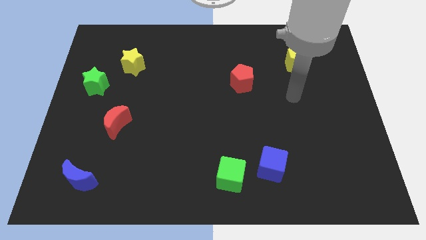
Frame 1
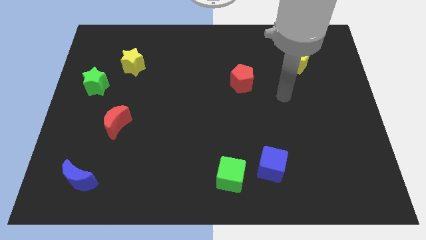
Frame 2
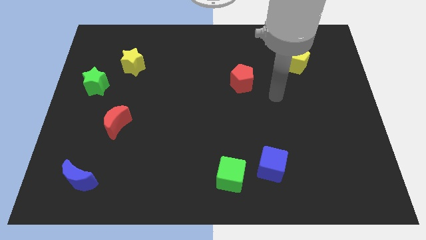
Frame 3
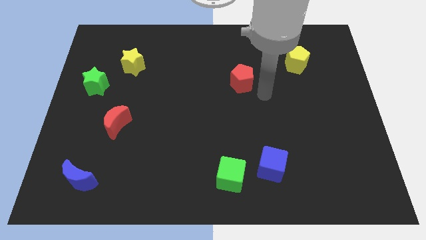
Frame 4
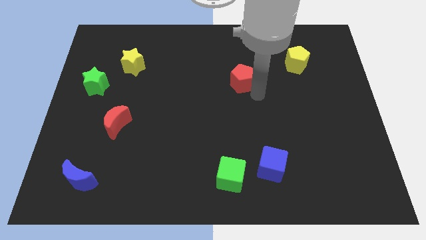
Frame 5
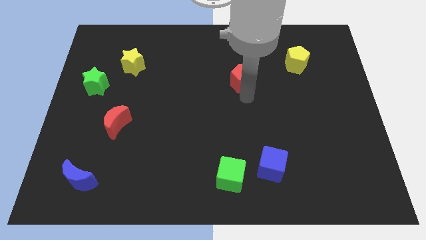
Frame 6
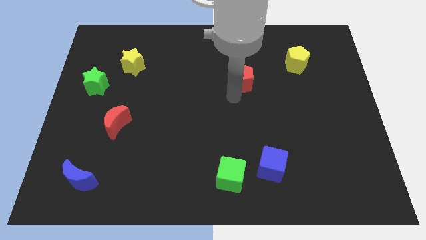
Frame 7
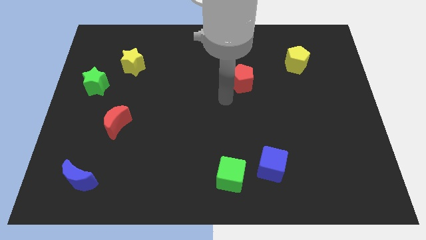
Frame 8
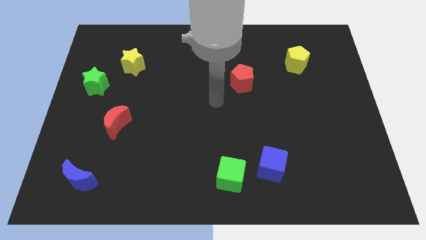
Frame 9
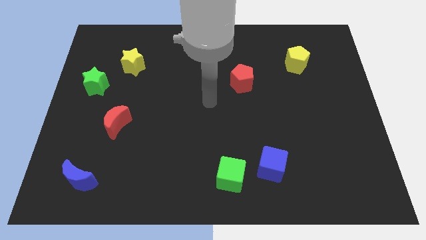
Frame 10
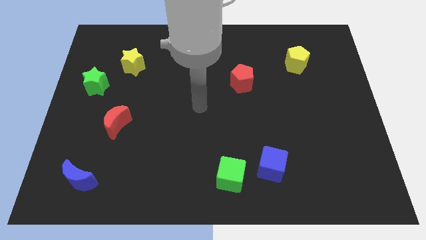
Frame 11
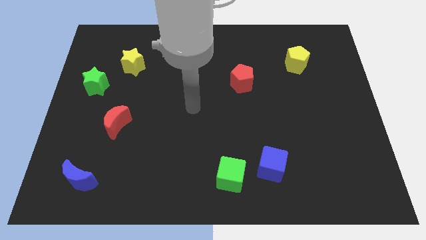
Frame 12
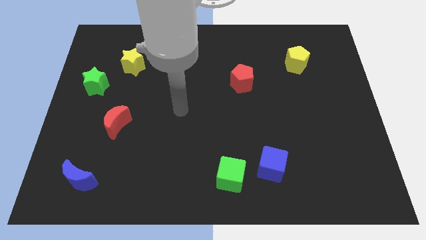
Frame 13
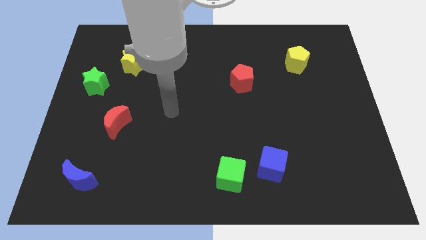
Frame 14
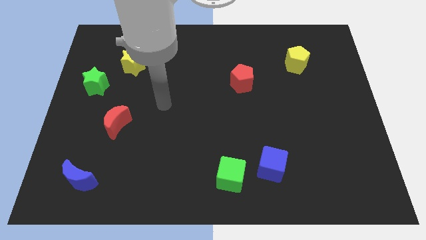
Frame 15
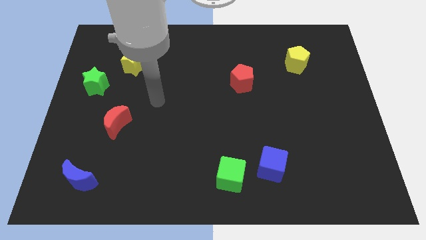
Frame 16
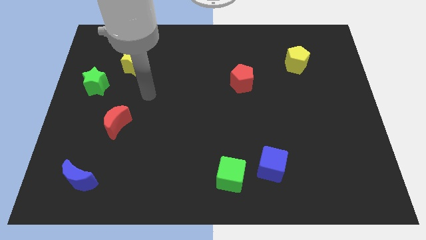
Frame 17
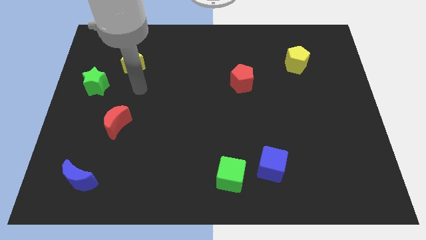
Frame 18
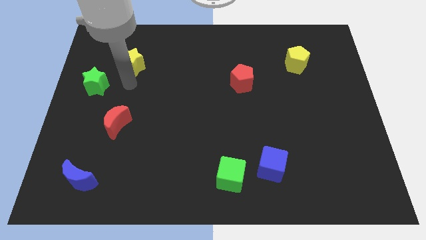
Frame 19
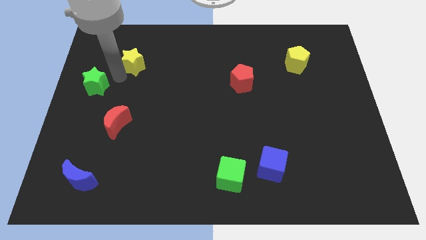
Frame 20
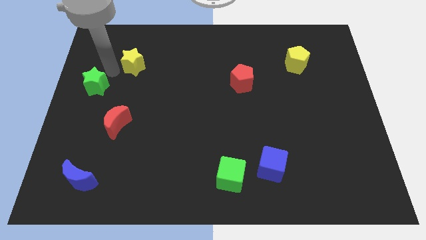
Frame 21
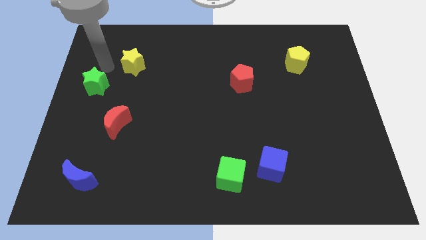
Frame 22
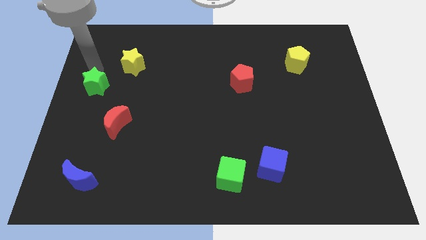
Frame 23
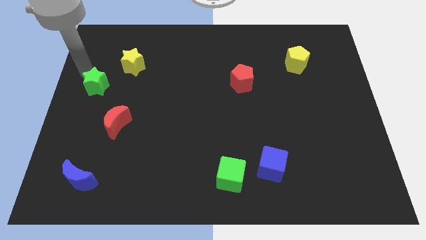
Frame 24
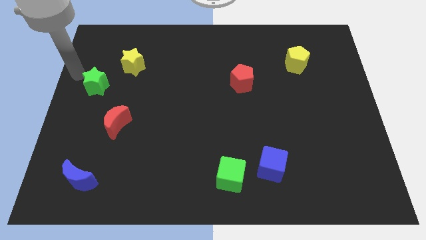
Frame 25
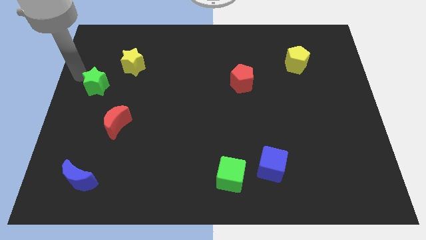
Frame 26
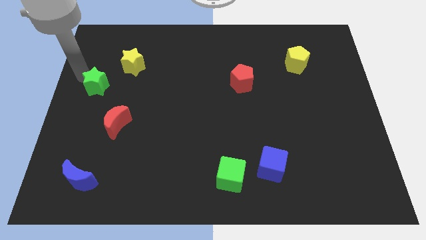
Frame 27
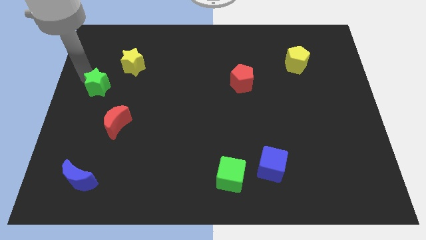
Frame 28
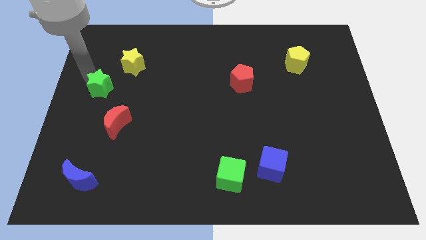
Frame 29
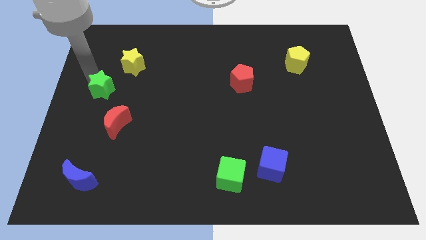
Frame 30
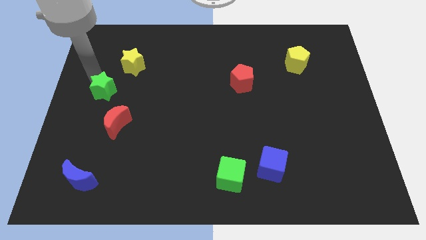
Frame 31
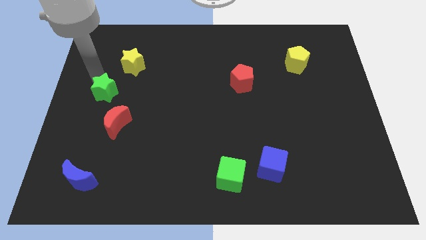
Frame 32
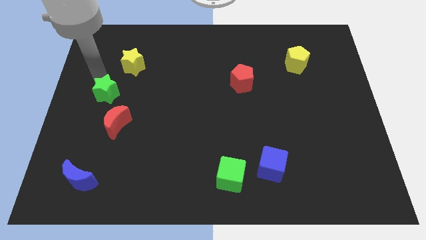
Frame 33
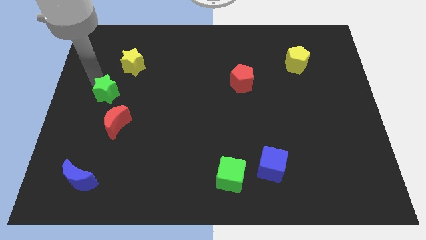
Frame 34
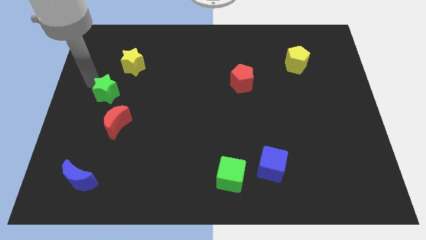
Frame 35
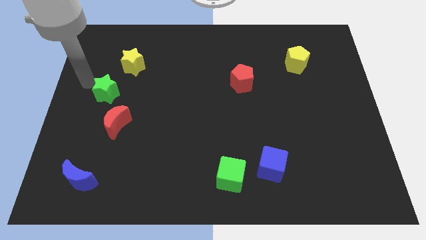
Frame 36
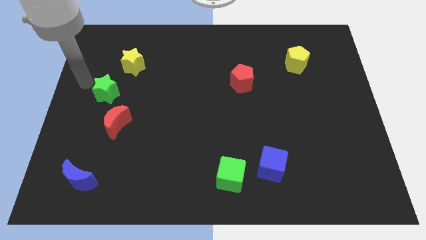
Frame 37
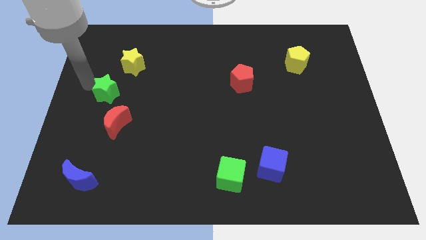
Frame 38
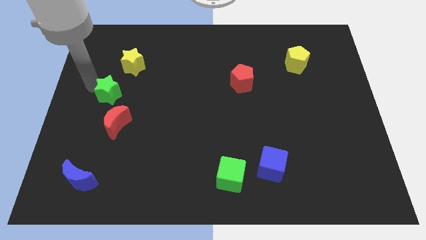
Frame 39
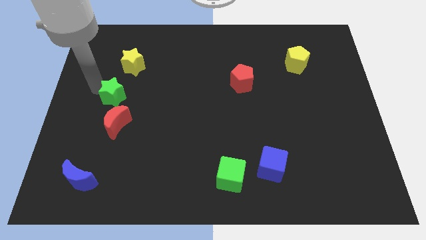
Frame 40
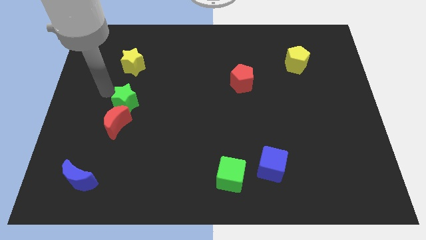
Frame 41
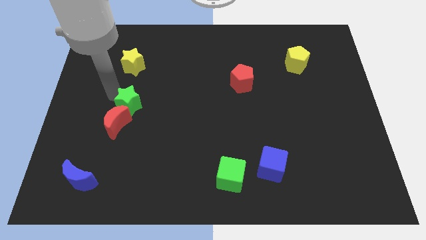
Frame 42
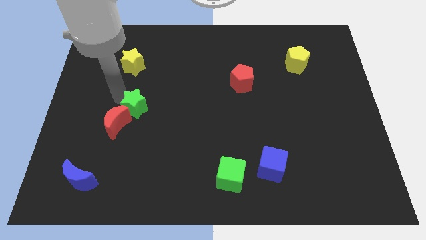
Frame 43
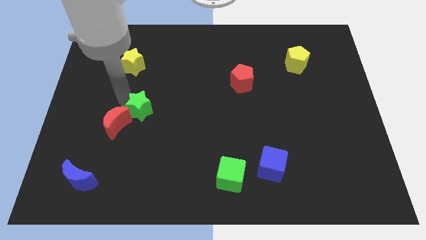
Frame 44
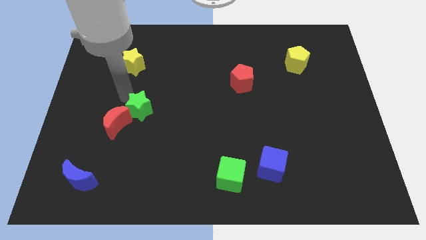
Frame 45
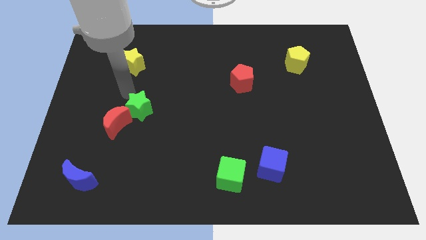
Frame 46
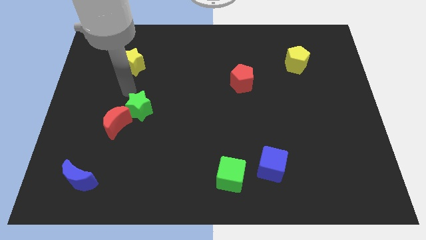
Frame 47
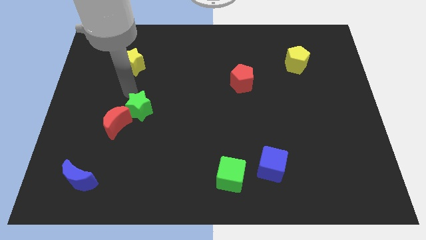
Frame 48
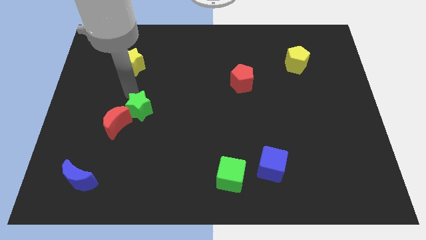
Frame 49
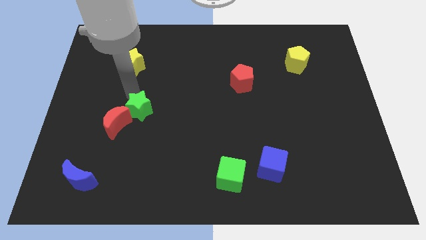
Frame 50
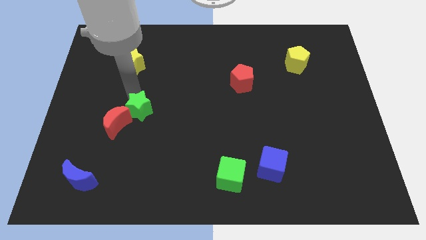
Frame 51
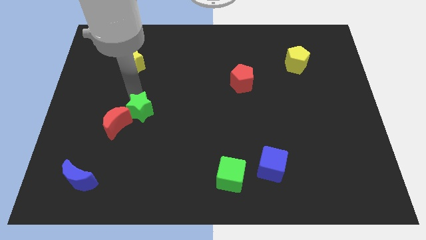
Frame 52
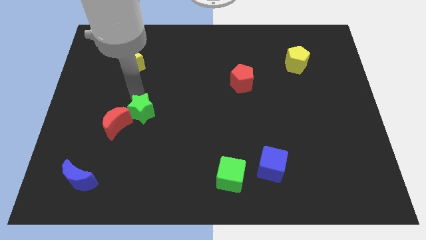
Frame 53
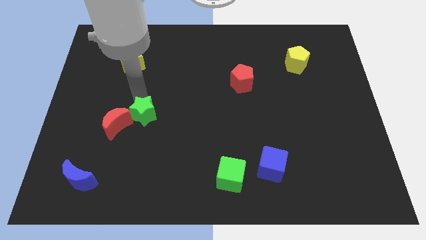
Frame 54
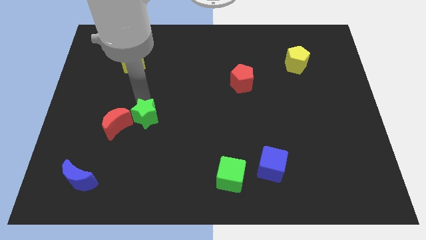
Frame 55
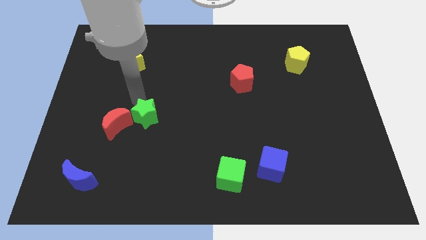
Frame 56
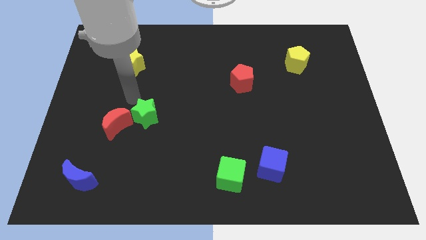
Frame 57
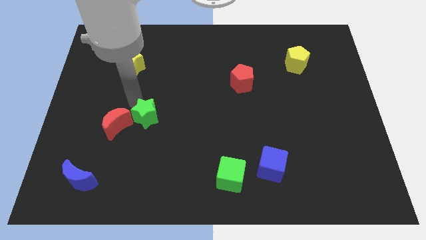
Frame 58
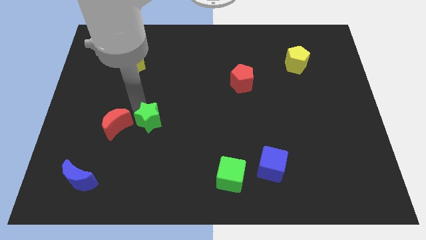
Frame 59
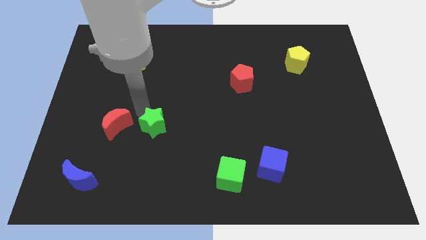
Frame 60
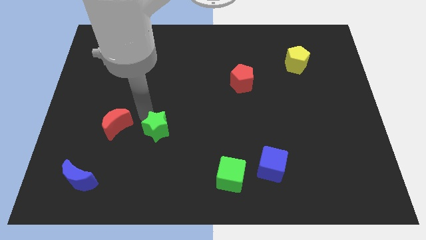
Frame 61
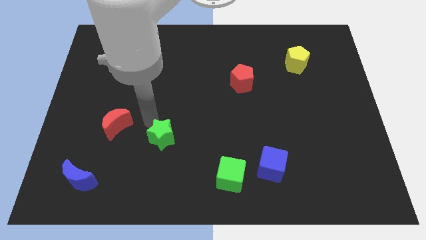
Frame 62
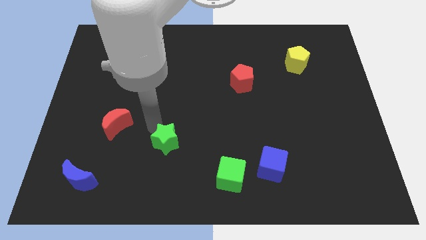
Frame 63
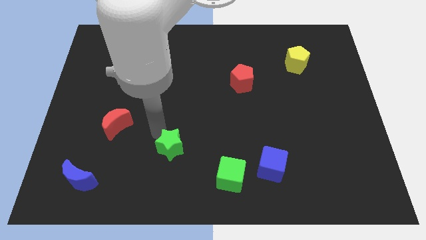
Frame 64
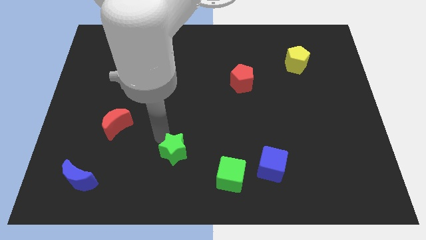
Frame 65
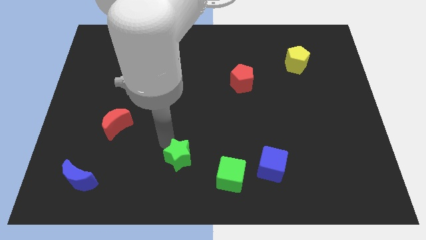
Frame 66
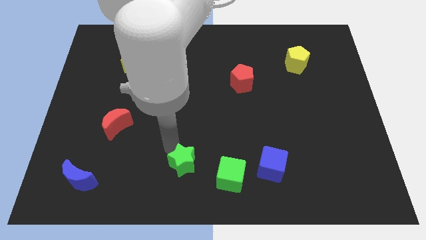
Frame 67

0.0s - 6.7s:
put the green star to the bottom side

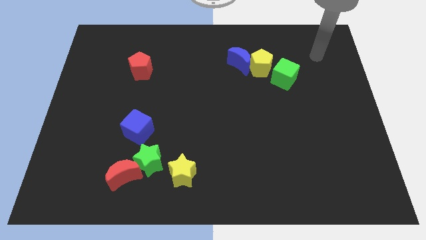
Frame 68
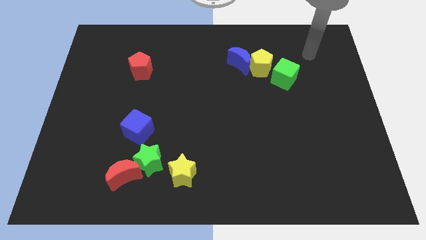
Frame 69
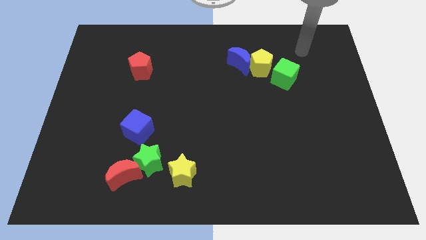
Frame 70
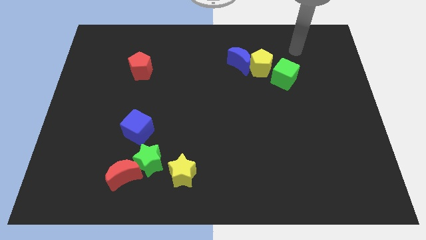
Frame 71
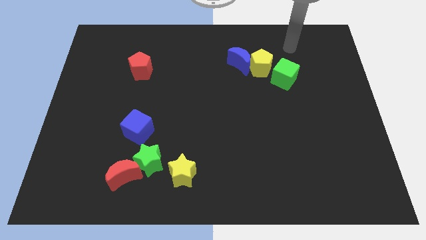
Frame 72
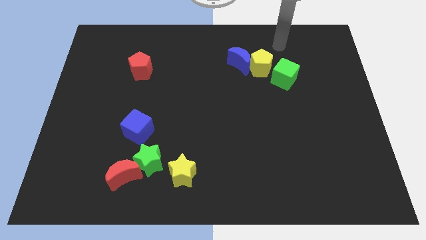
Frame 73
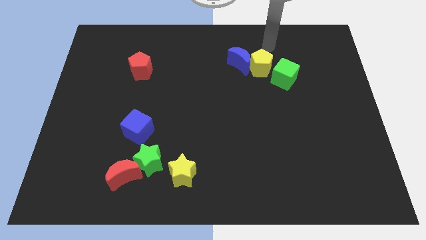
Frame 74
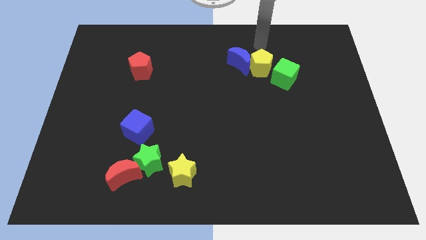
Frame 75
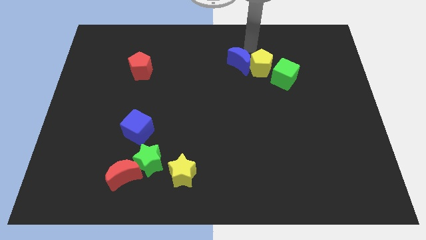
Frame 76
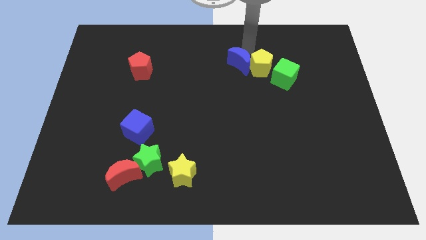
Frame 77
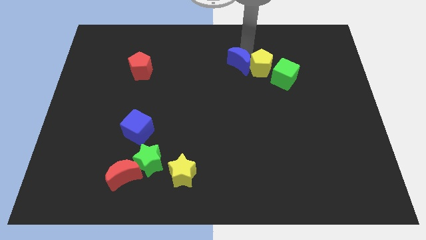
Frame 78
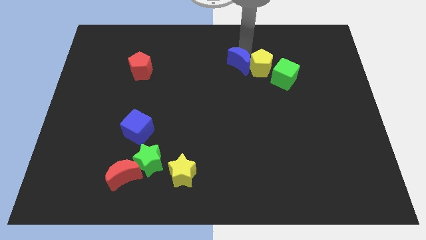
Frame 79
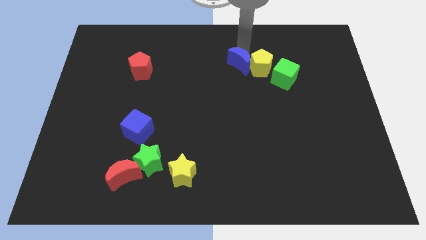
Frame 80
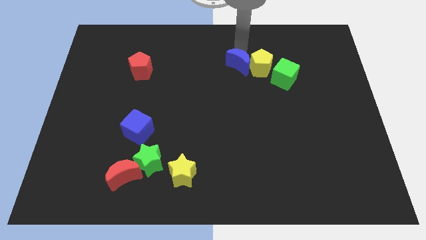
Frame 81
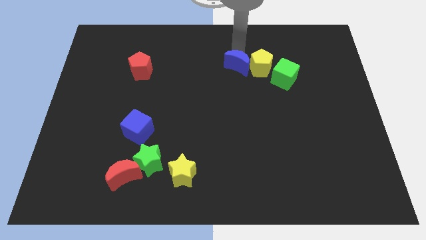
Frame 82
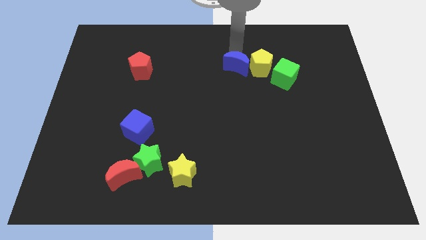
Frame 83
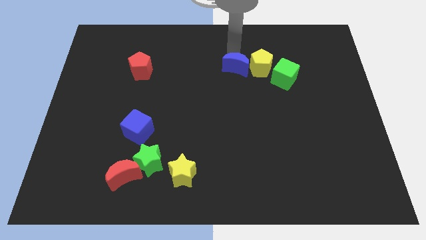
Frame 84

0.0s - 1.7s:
slide the blue moon to the center of the board
